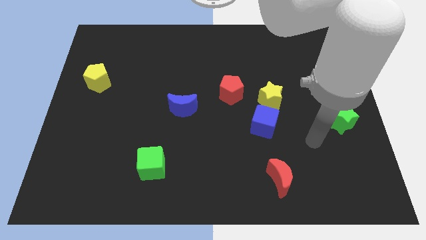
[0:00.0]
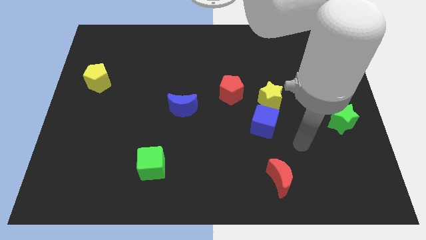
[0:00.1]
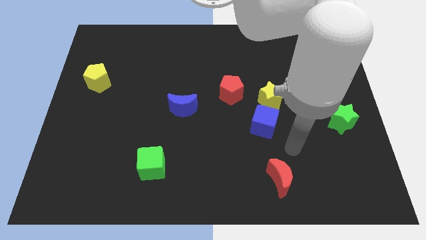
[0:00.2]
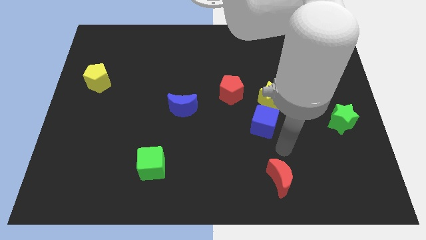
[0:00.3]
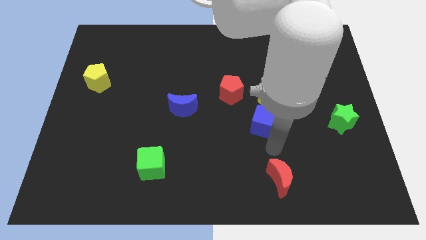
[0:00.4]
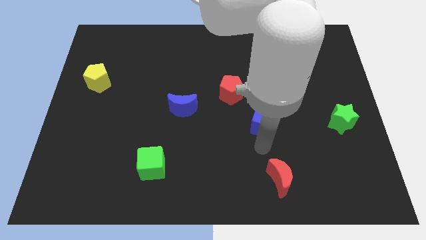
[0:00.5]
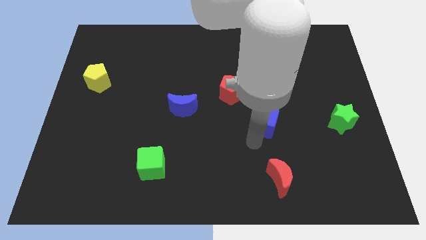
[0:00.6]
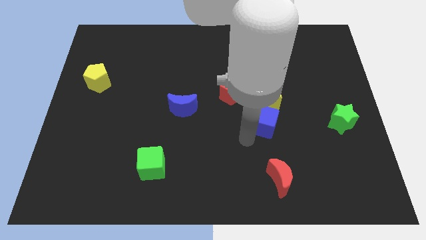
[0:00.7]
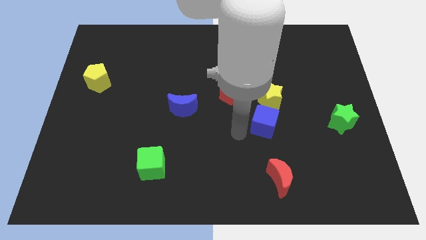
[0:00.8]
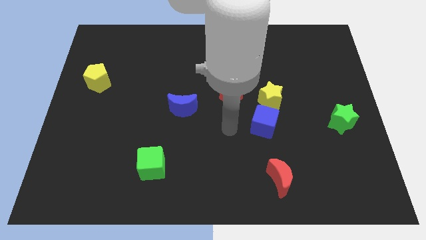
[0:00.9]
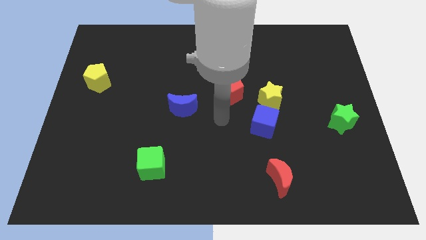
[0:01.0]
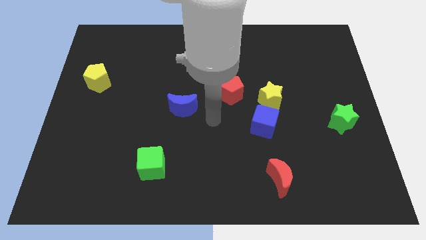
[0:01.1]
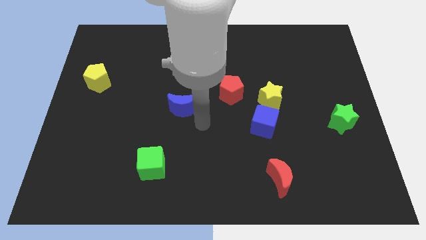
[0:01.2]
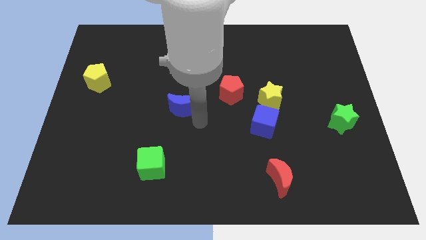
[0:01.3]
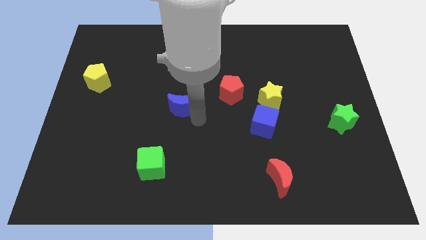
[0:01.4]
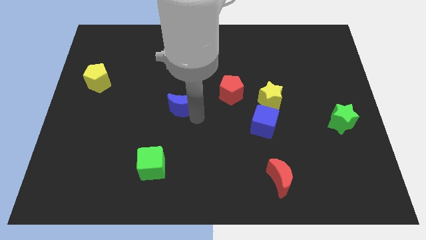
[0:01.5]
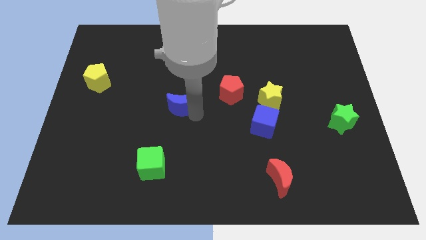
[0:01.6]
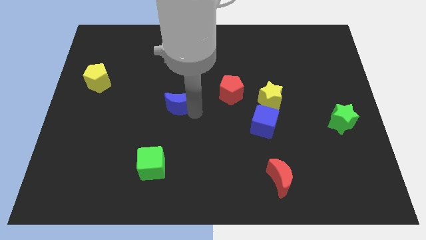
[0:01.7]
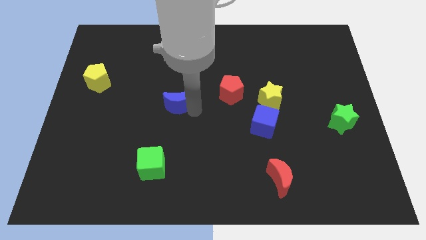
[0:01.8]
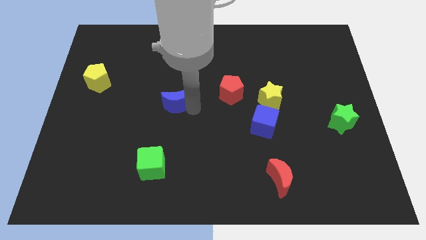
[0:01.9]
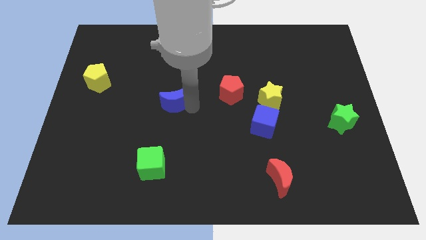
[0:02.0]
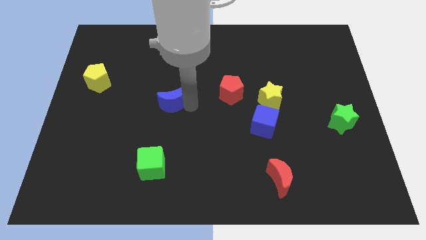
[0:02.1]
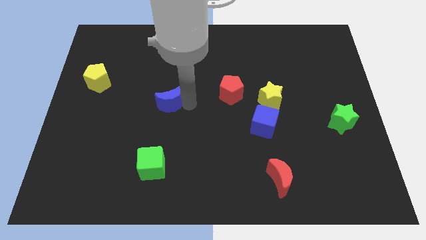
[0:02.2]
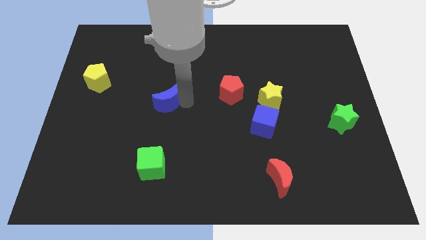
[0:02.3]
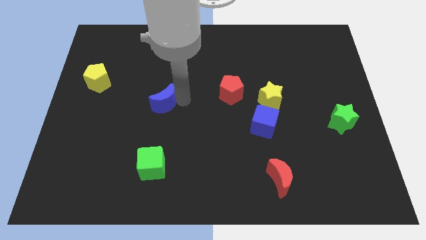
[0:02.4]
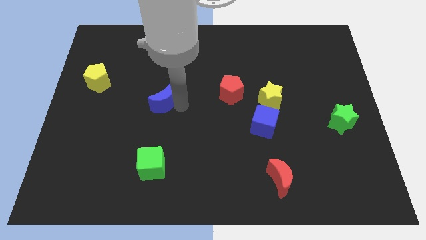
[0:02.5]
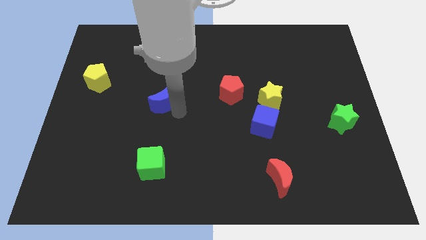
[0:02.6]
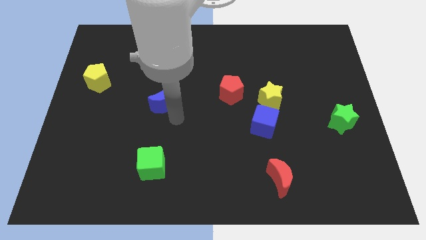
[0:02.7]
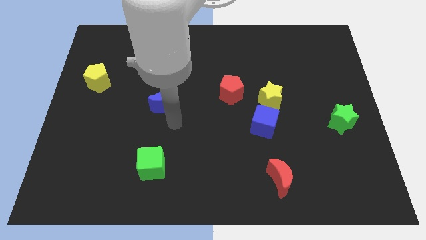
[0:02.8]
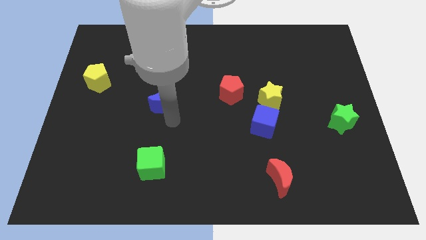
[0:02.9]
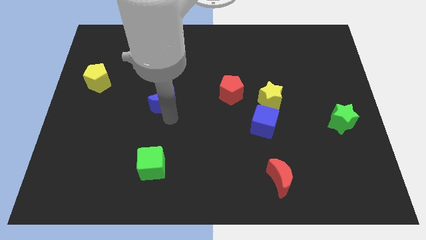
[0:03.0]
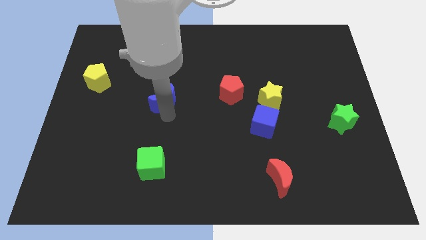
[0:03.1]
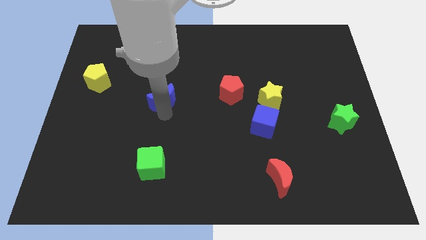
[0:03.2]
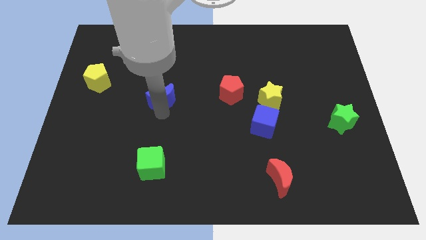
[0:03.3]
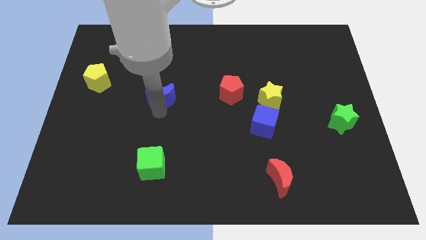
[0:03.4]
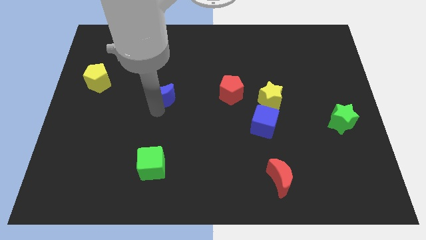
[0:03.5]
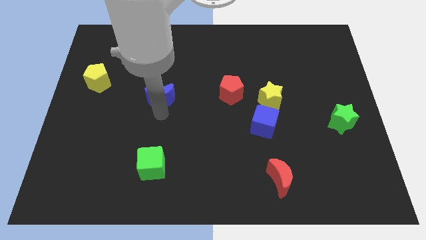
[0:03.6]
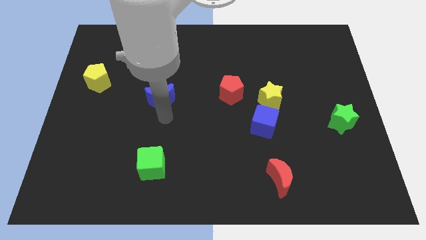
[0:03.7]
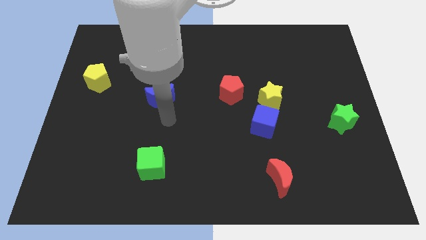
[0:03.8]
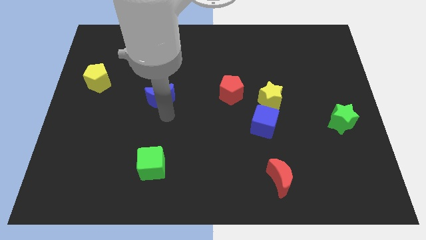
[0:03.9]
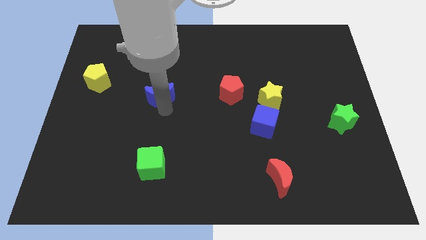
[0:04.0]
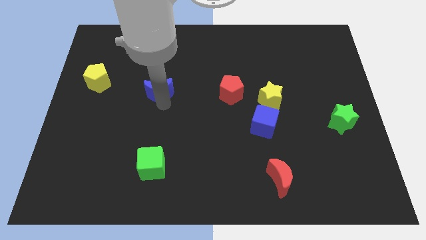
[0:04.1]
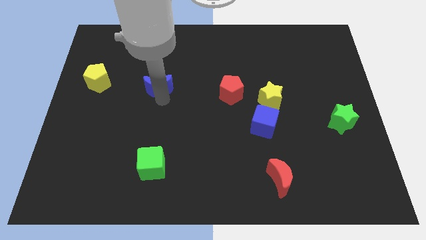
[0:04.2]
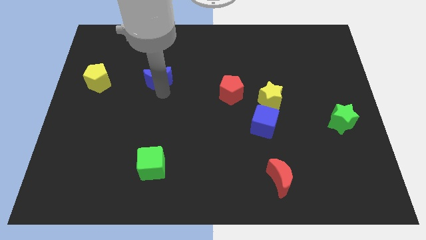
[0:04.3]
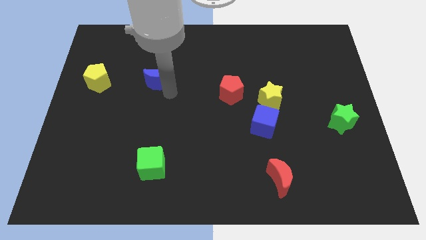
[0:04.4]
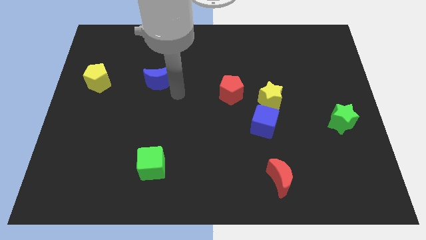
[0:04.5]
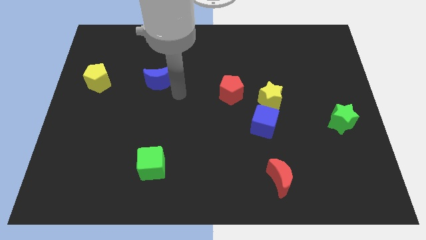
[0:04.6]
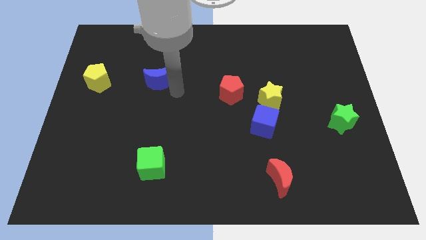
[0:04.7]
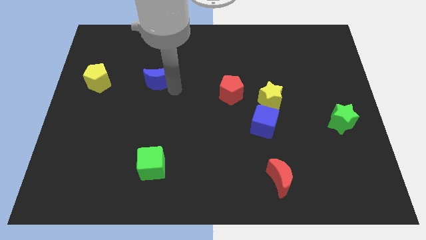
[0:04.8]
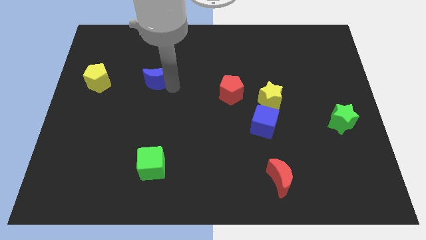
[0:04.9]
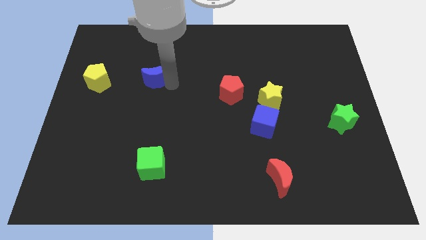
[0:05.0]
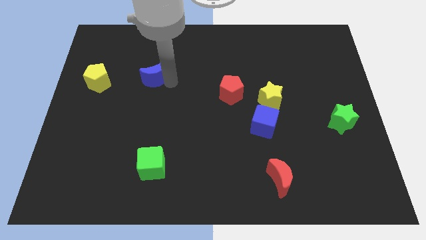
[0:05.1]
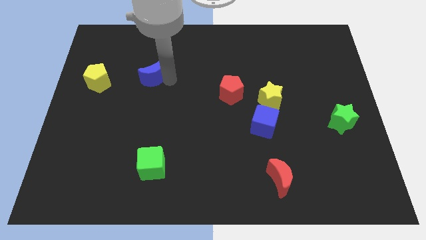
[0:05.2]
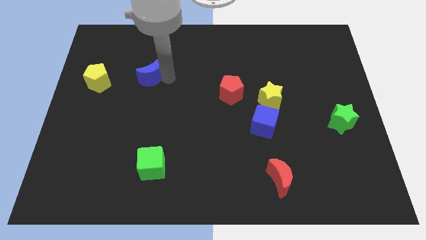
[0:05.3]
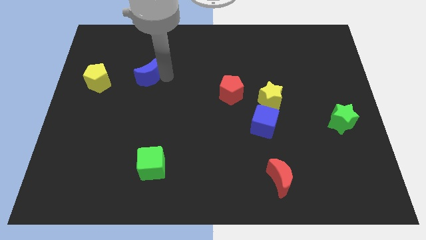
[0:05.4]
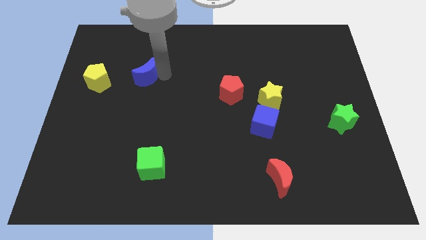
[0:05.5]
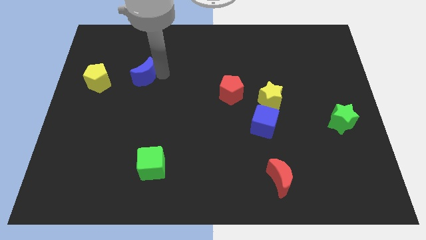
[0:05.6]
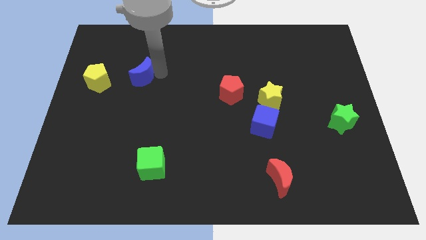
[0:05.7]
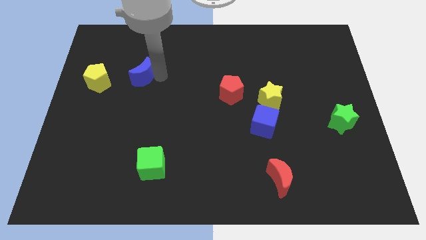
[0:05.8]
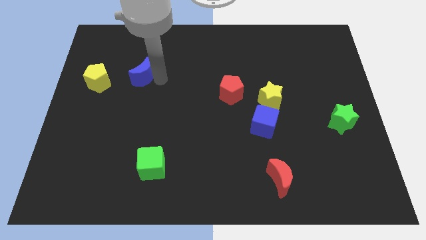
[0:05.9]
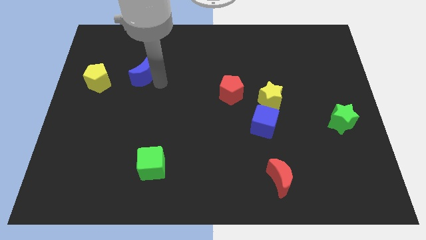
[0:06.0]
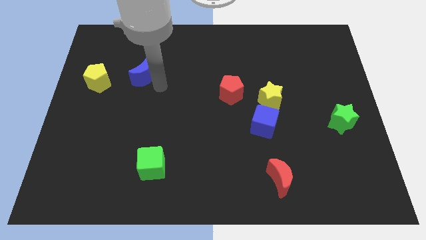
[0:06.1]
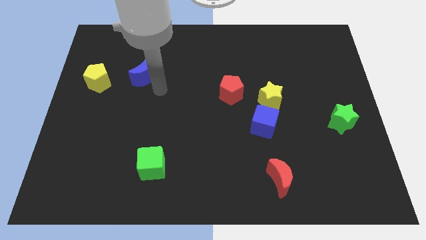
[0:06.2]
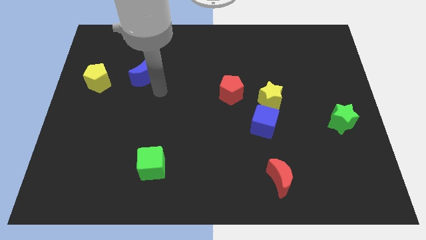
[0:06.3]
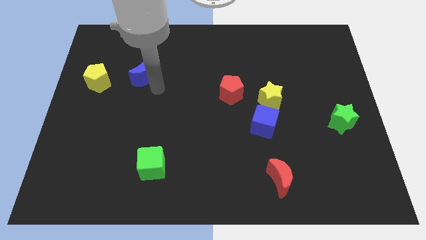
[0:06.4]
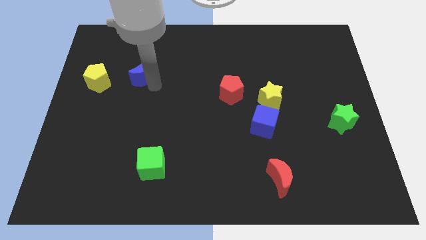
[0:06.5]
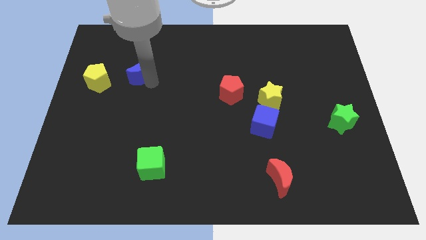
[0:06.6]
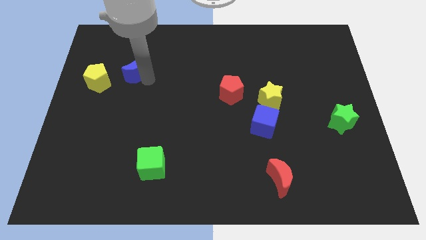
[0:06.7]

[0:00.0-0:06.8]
slide the blue moon to the top right side of the yellow pentagon
